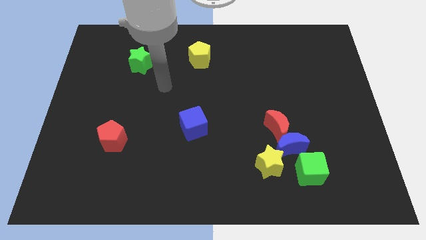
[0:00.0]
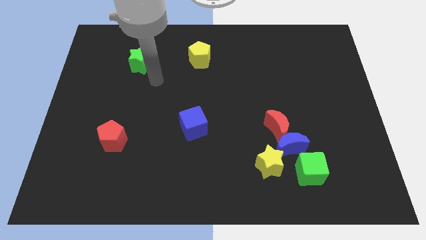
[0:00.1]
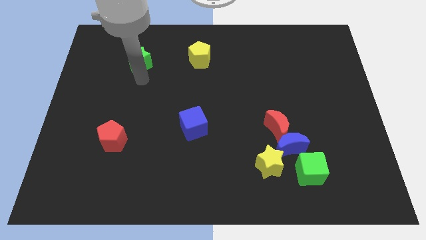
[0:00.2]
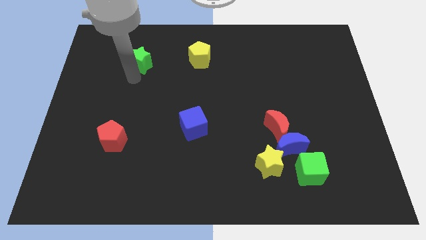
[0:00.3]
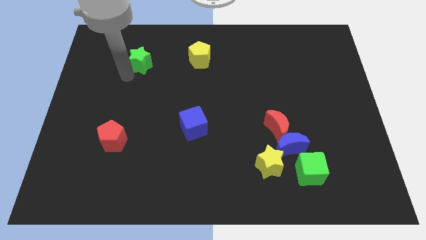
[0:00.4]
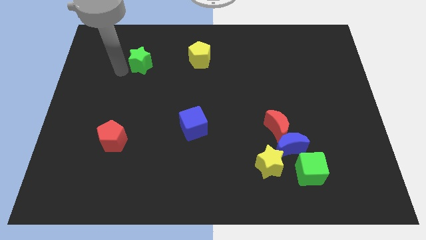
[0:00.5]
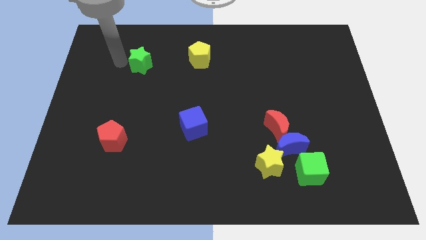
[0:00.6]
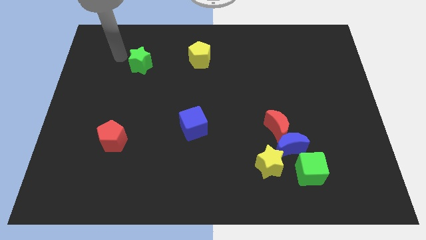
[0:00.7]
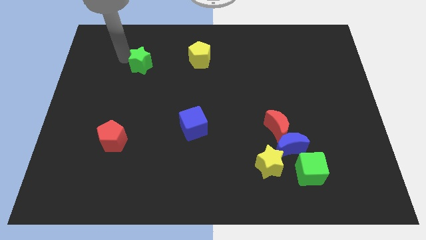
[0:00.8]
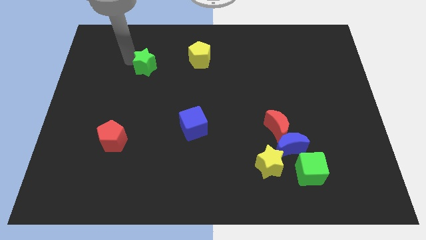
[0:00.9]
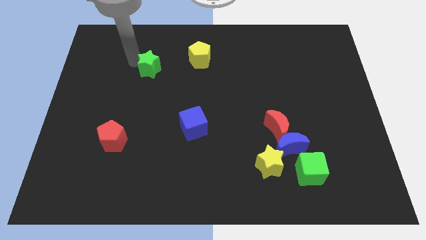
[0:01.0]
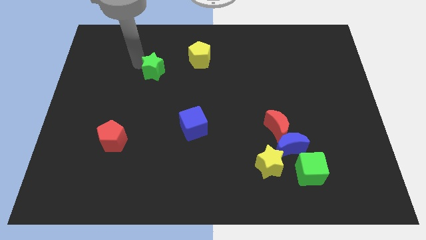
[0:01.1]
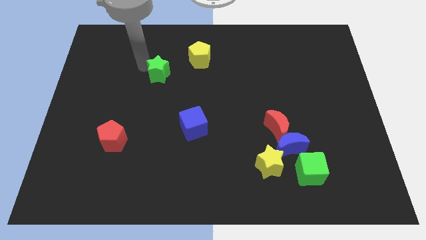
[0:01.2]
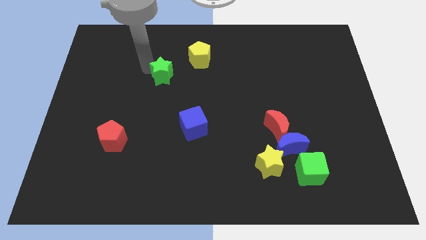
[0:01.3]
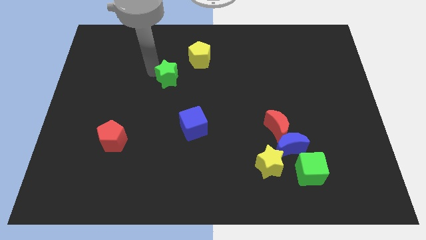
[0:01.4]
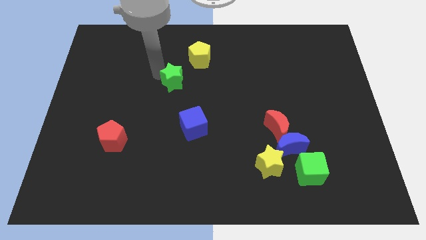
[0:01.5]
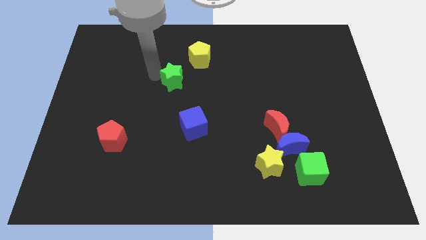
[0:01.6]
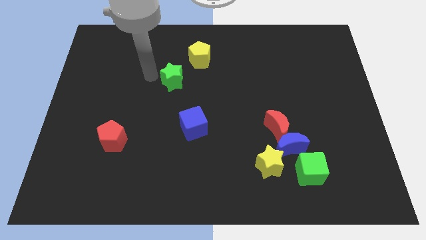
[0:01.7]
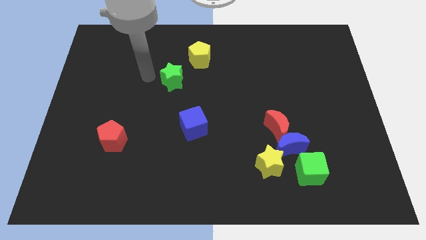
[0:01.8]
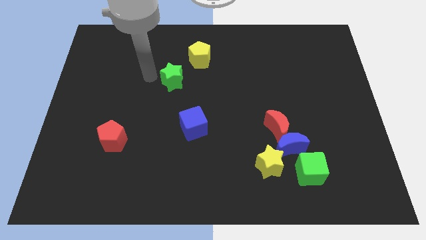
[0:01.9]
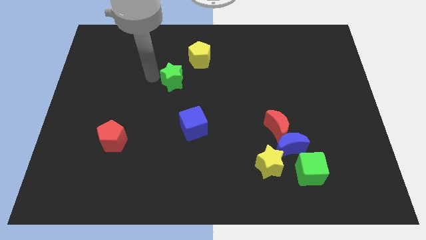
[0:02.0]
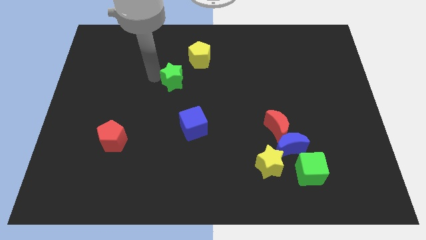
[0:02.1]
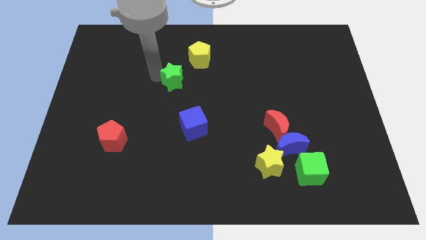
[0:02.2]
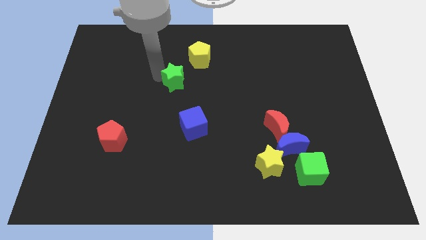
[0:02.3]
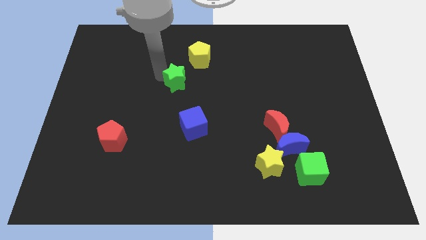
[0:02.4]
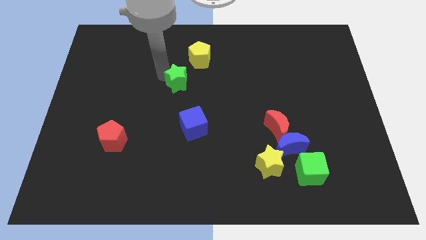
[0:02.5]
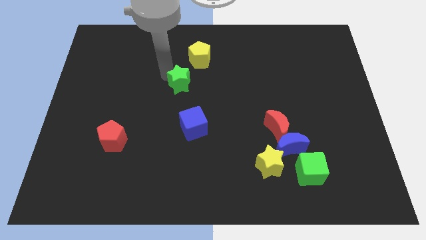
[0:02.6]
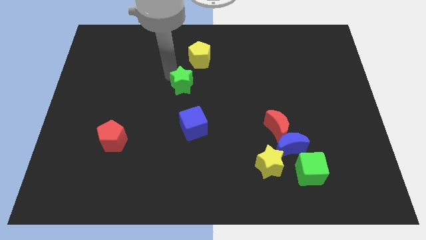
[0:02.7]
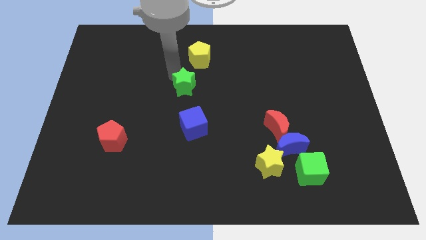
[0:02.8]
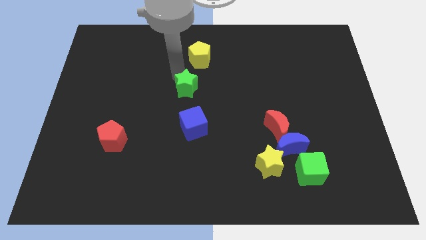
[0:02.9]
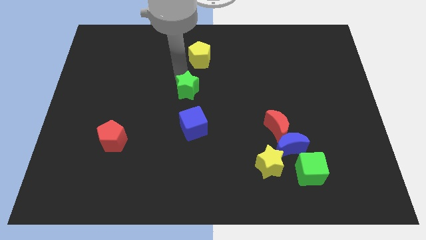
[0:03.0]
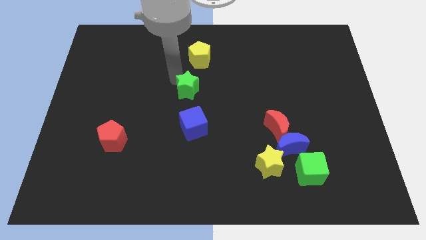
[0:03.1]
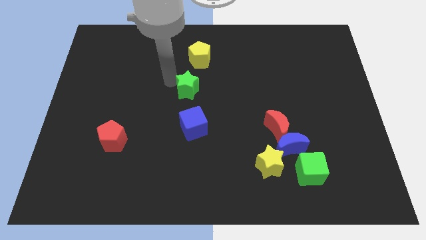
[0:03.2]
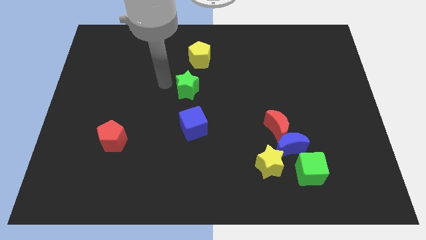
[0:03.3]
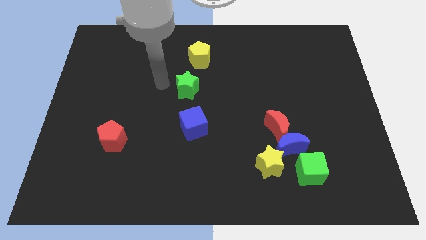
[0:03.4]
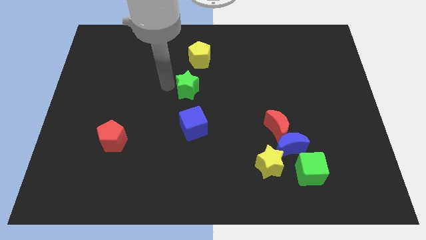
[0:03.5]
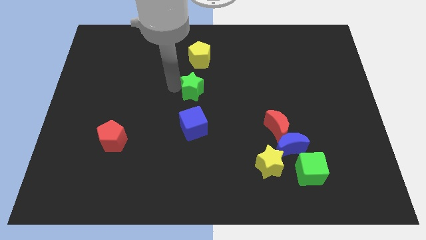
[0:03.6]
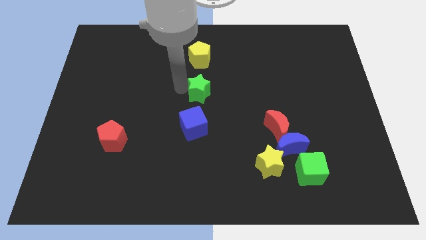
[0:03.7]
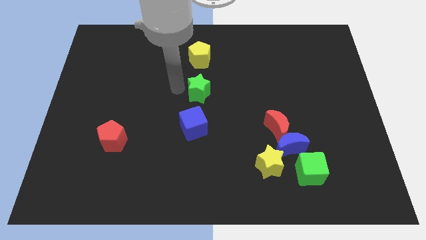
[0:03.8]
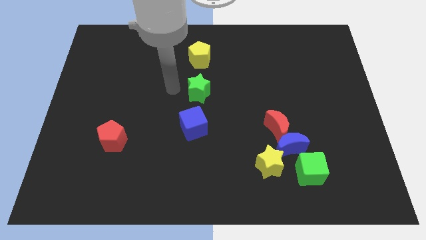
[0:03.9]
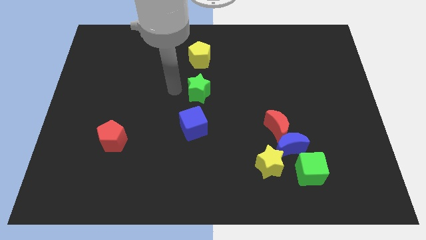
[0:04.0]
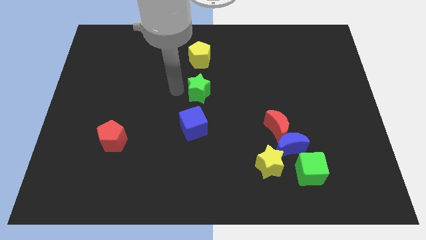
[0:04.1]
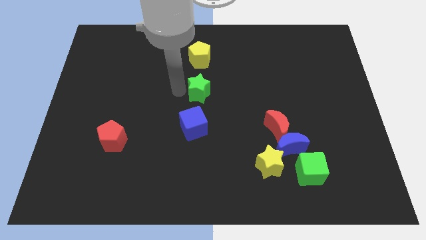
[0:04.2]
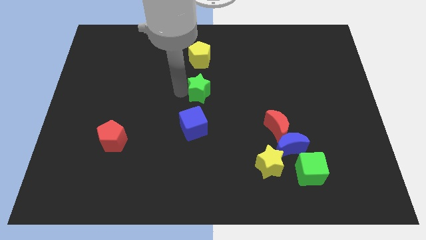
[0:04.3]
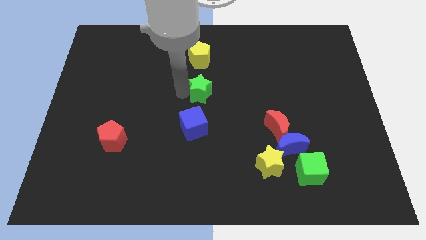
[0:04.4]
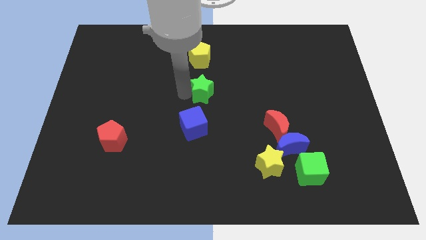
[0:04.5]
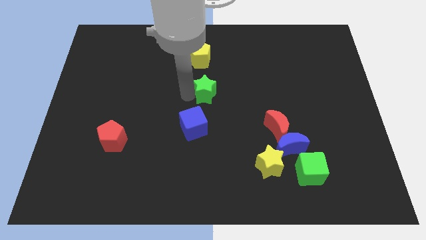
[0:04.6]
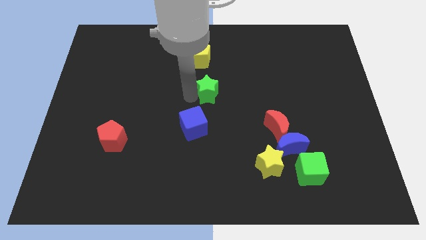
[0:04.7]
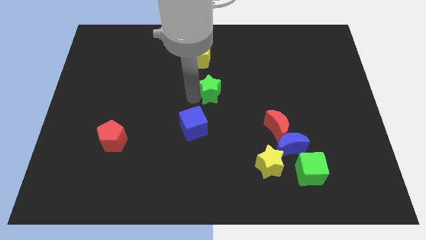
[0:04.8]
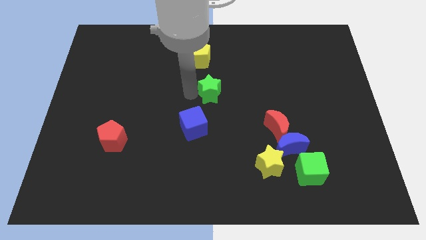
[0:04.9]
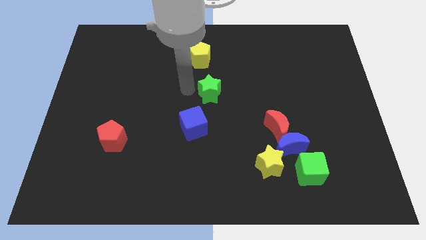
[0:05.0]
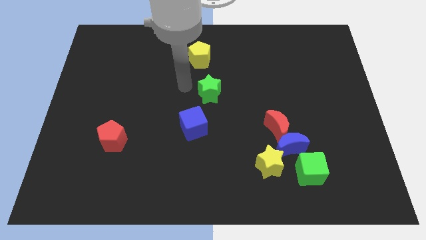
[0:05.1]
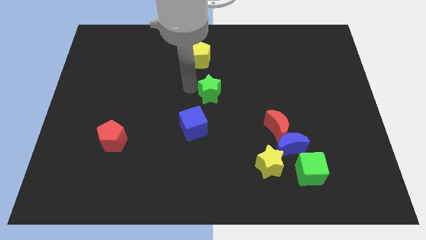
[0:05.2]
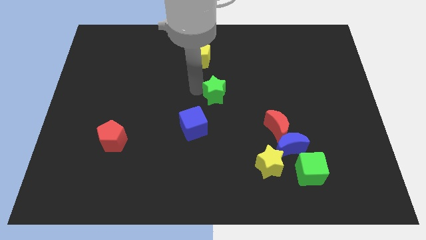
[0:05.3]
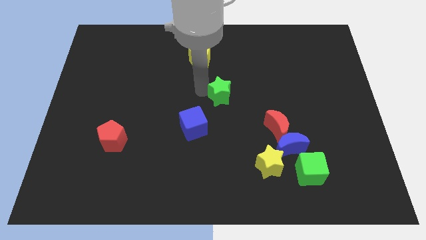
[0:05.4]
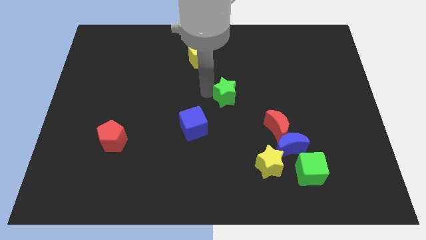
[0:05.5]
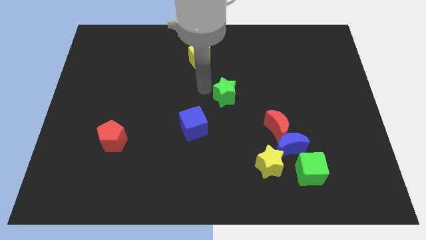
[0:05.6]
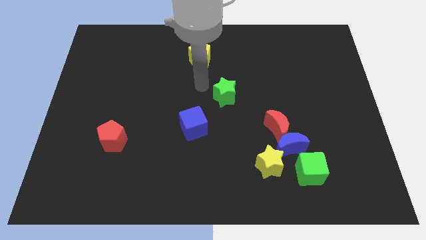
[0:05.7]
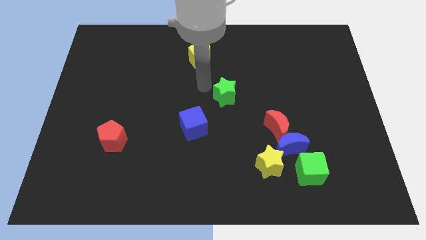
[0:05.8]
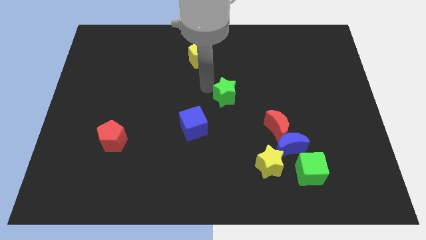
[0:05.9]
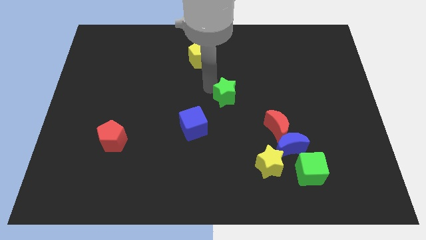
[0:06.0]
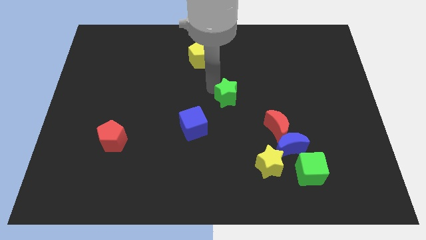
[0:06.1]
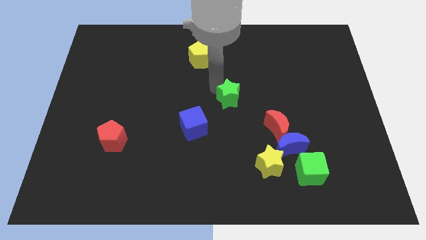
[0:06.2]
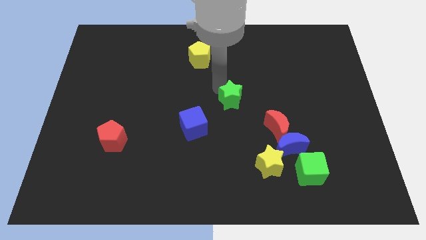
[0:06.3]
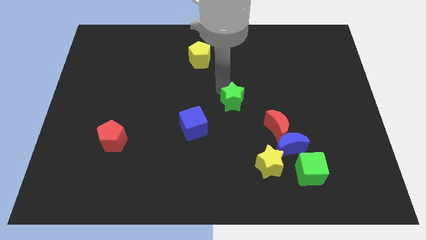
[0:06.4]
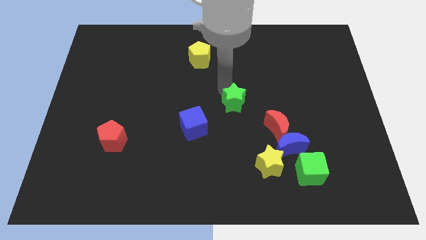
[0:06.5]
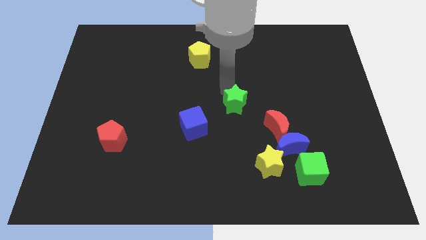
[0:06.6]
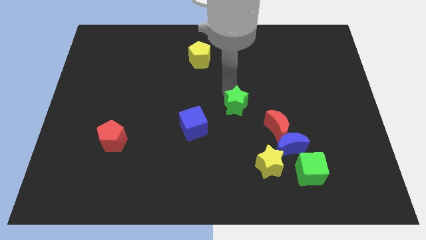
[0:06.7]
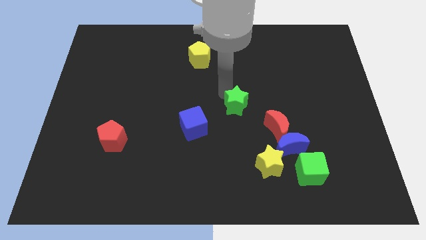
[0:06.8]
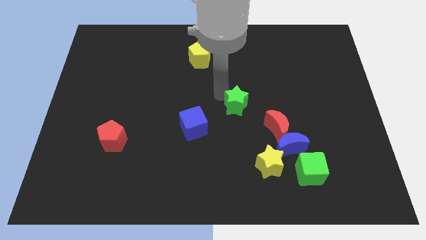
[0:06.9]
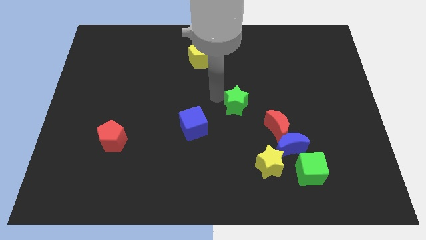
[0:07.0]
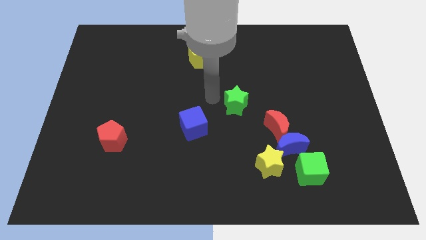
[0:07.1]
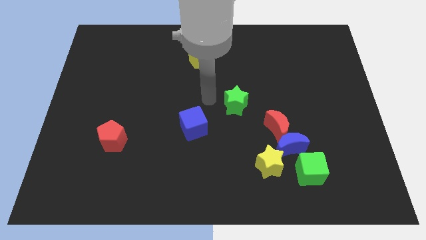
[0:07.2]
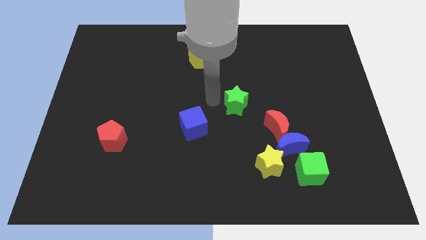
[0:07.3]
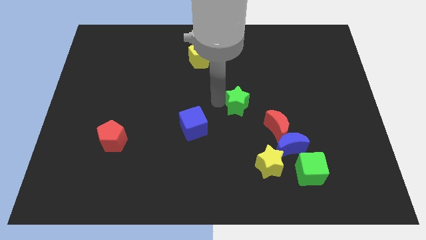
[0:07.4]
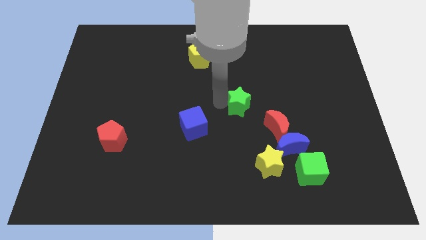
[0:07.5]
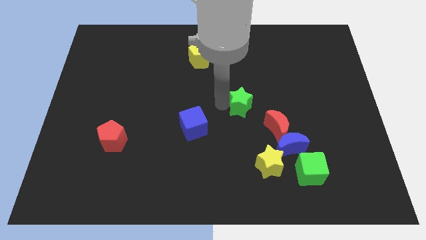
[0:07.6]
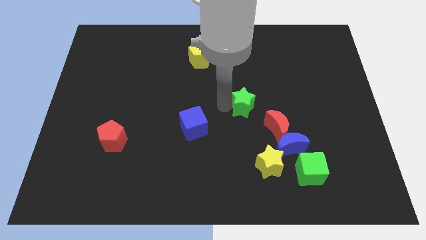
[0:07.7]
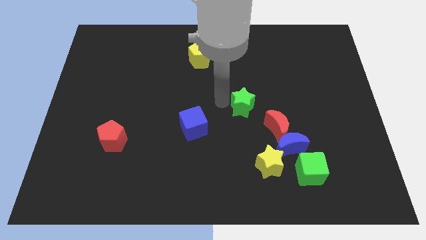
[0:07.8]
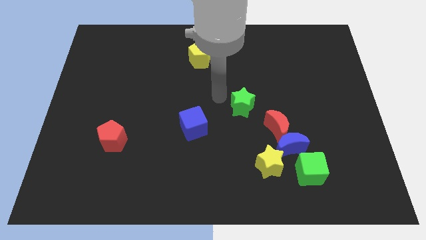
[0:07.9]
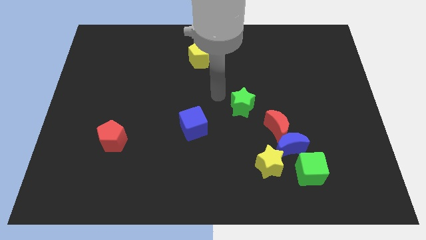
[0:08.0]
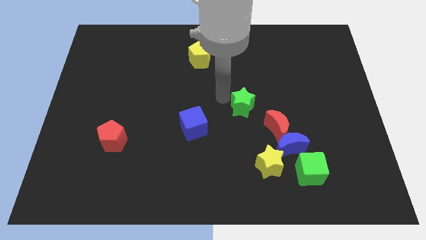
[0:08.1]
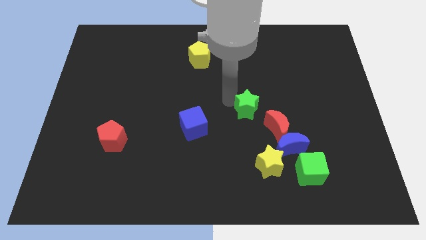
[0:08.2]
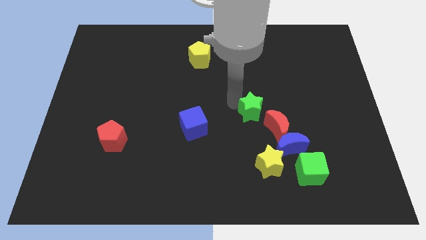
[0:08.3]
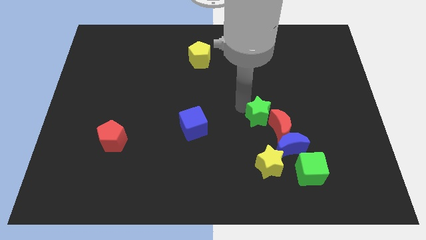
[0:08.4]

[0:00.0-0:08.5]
slide the green star towards the red moon
